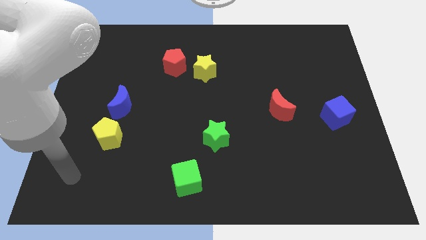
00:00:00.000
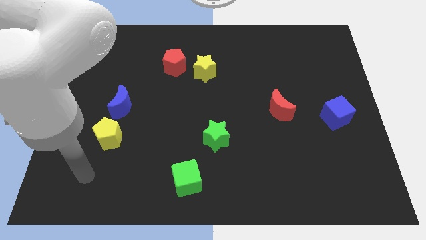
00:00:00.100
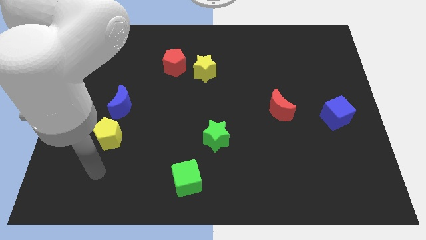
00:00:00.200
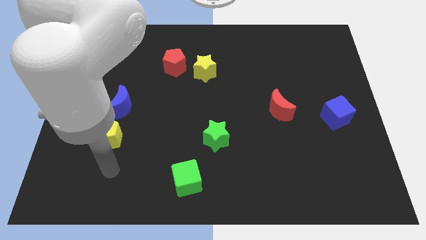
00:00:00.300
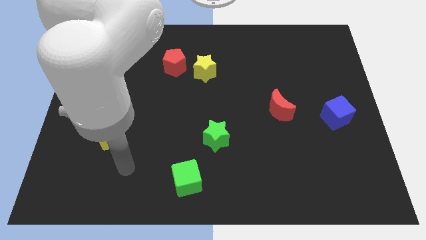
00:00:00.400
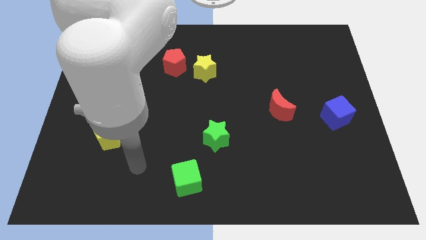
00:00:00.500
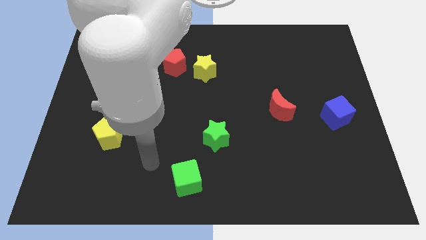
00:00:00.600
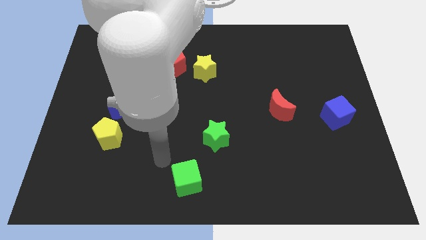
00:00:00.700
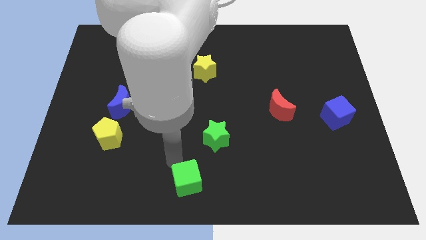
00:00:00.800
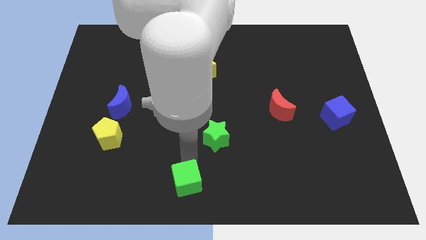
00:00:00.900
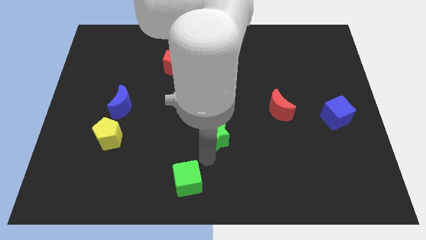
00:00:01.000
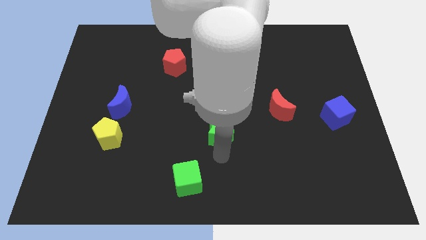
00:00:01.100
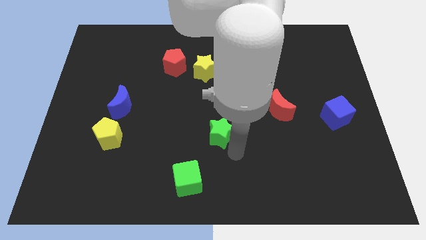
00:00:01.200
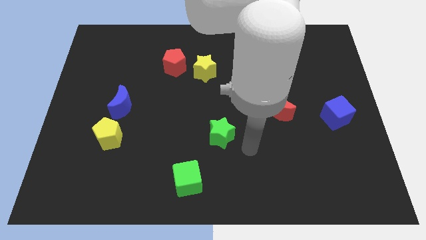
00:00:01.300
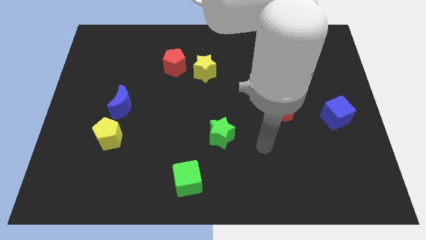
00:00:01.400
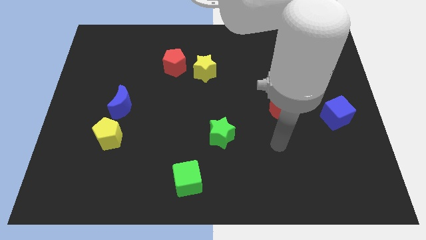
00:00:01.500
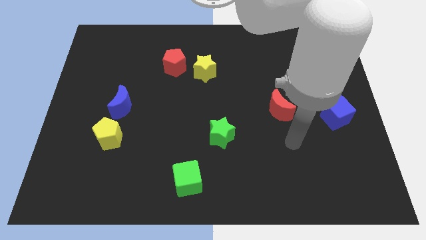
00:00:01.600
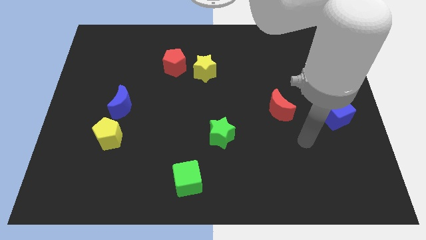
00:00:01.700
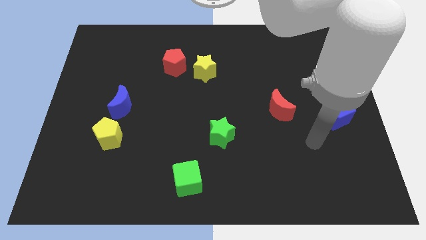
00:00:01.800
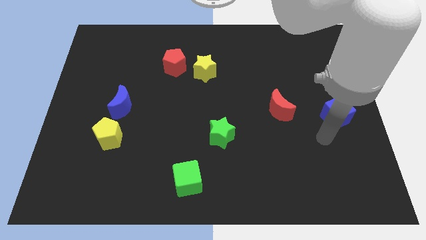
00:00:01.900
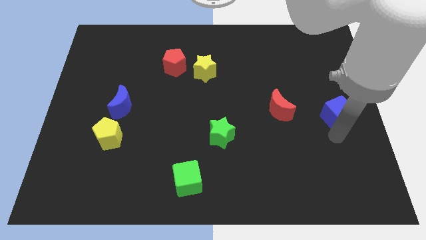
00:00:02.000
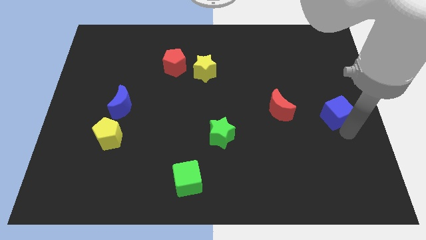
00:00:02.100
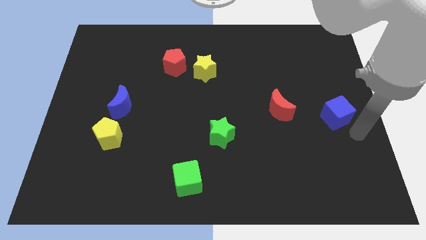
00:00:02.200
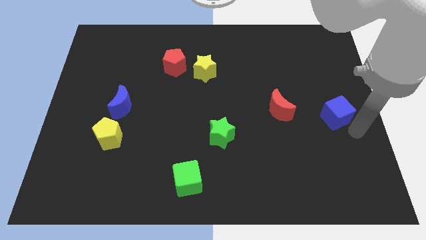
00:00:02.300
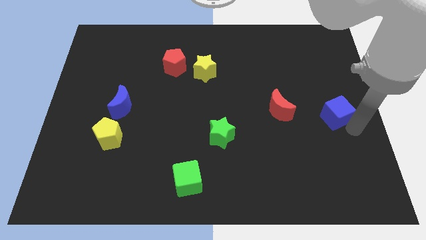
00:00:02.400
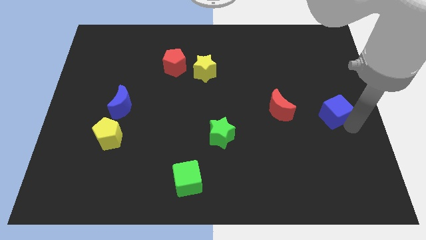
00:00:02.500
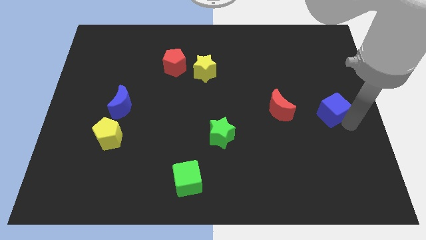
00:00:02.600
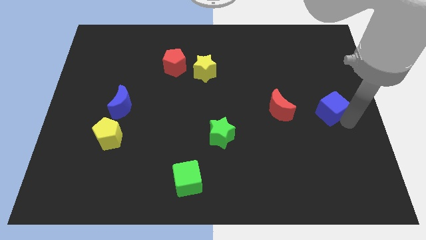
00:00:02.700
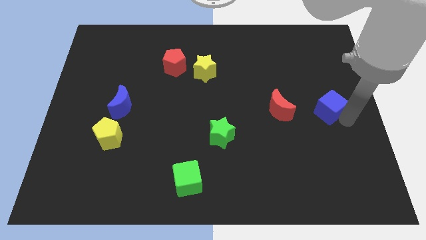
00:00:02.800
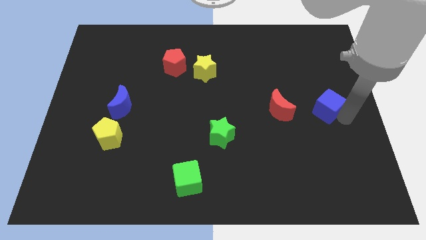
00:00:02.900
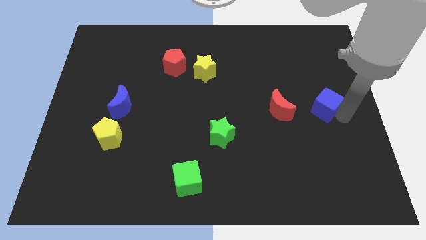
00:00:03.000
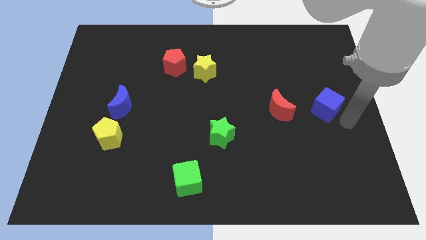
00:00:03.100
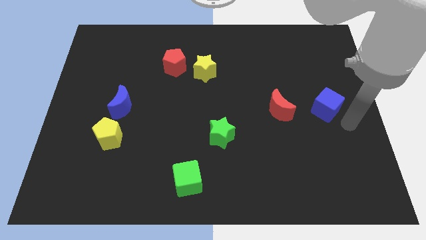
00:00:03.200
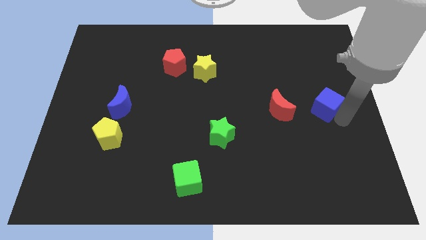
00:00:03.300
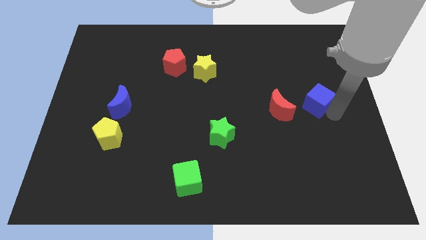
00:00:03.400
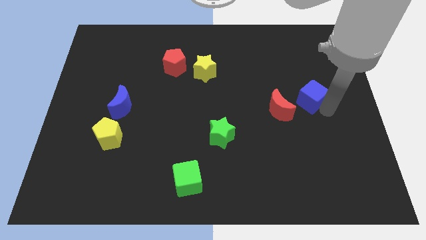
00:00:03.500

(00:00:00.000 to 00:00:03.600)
slightly move the blue cube diagonally up and to the left

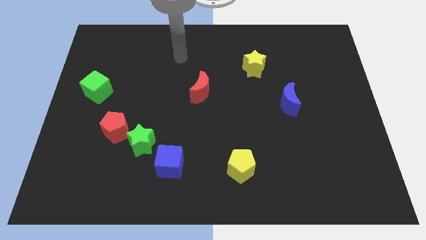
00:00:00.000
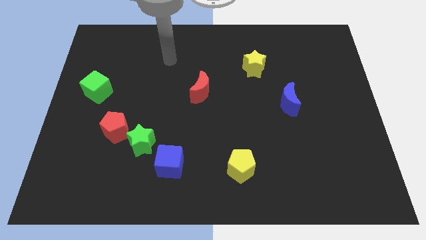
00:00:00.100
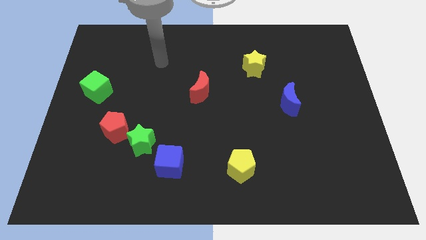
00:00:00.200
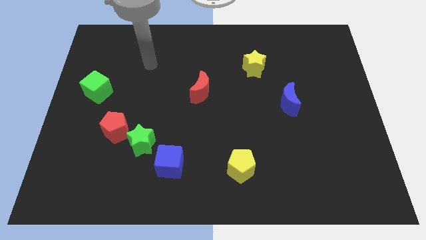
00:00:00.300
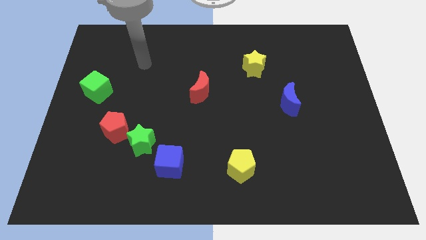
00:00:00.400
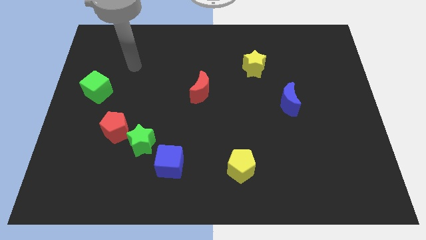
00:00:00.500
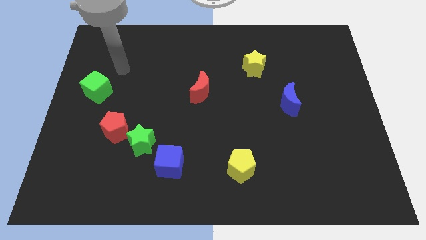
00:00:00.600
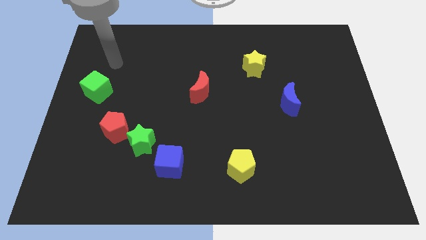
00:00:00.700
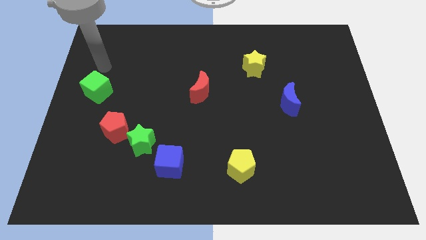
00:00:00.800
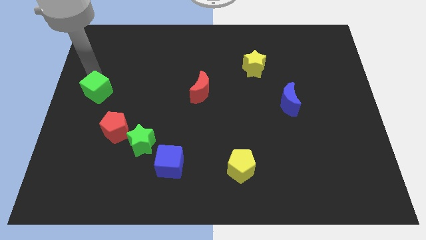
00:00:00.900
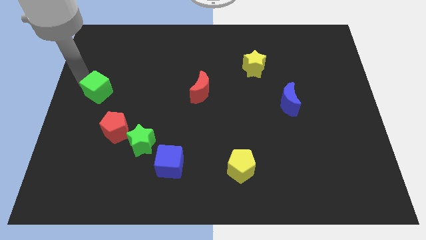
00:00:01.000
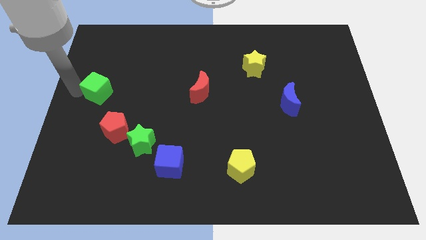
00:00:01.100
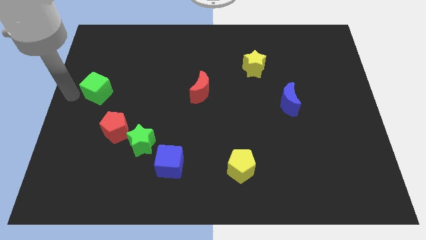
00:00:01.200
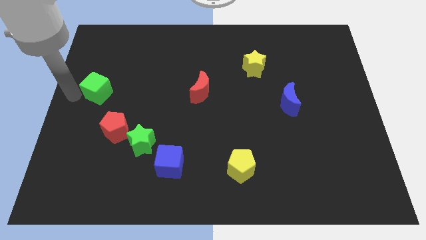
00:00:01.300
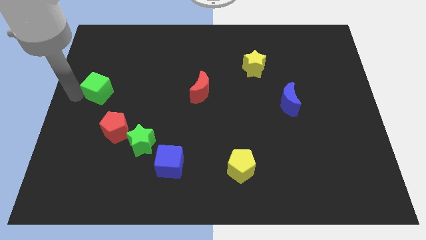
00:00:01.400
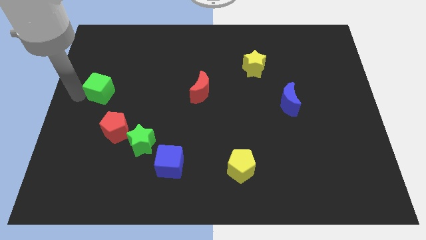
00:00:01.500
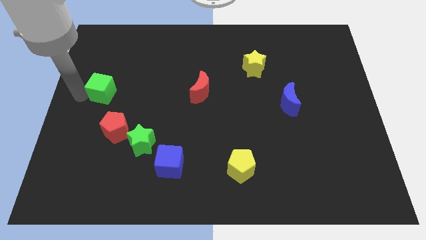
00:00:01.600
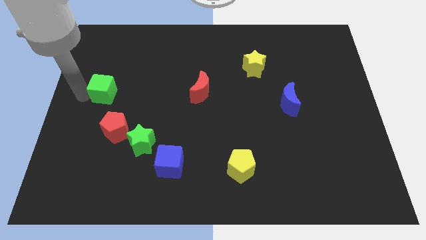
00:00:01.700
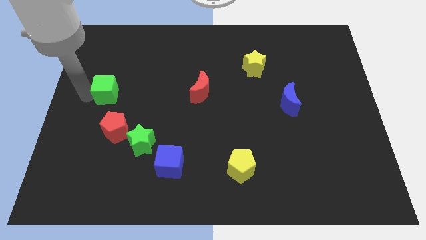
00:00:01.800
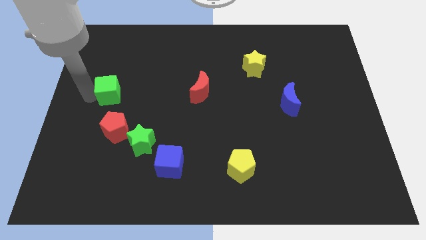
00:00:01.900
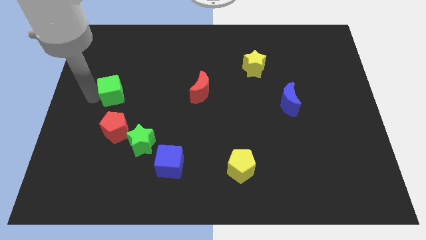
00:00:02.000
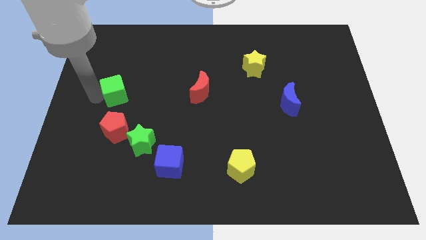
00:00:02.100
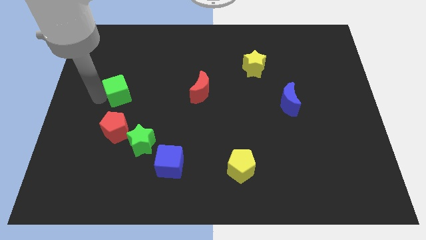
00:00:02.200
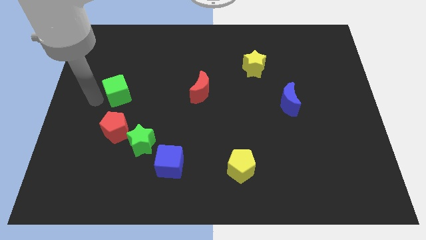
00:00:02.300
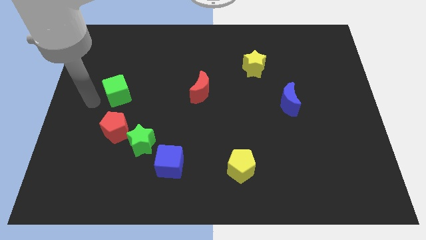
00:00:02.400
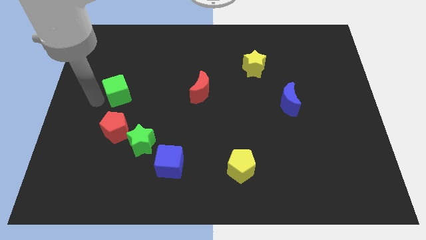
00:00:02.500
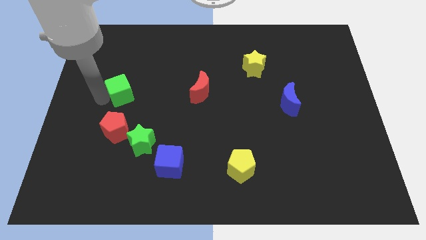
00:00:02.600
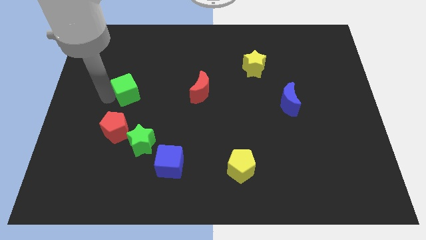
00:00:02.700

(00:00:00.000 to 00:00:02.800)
push the green cube somewhat to the right

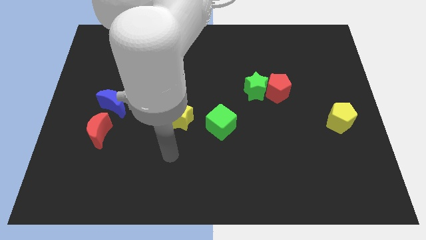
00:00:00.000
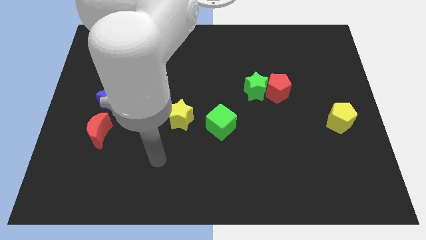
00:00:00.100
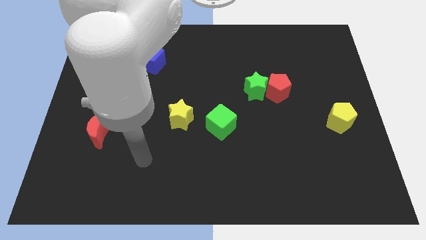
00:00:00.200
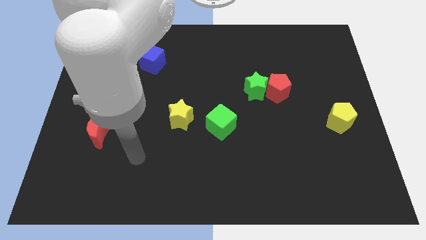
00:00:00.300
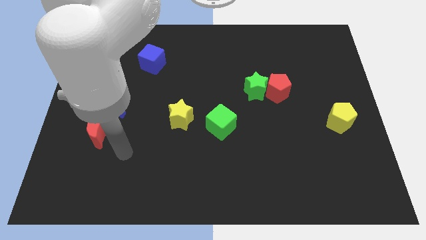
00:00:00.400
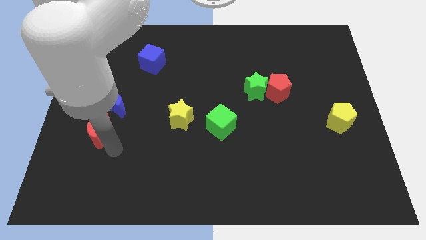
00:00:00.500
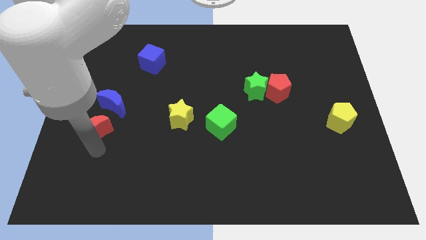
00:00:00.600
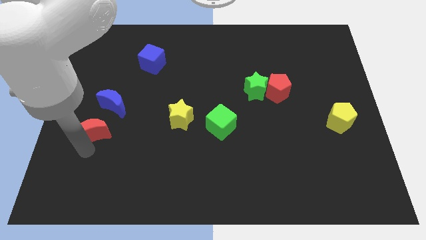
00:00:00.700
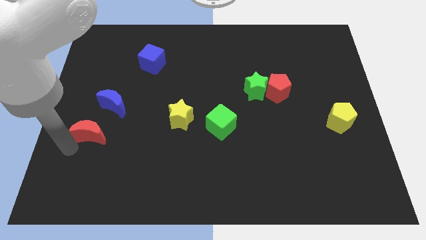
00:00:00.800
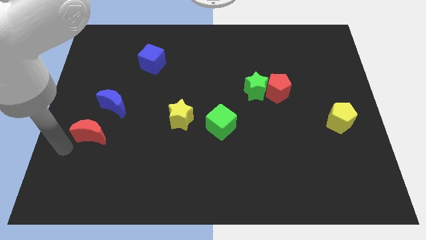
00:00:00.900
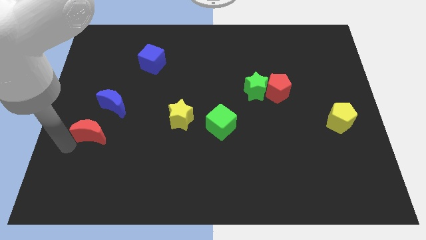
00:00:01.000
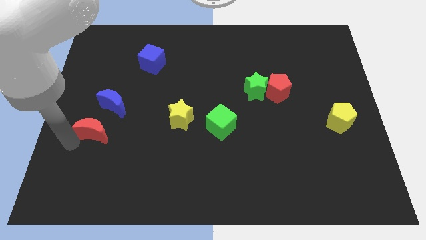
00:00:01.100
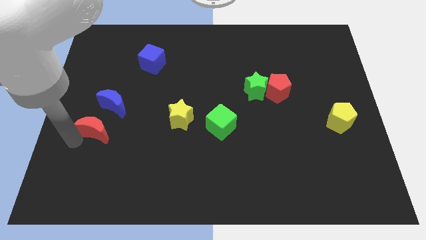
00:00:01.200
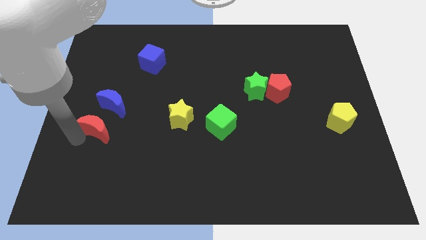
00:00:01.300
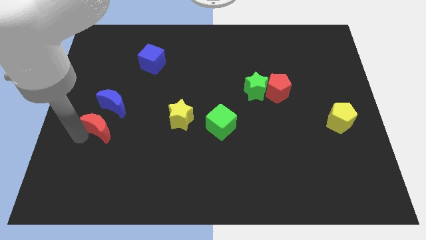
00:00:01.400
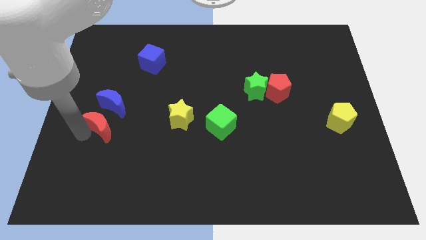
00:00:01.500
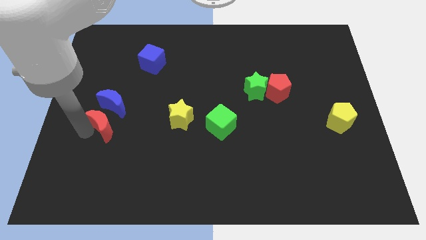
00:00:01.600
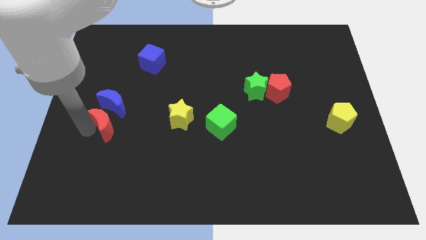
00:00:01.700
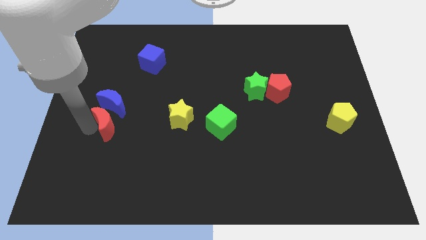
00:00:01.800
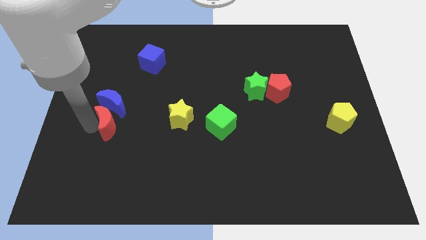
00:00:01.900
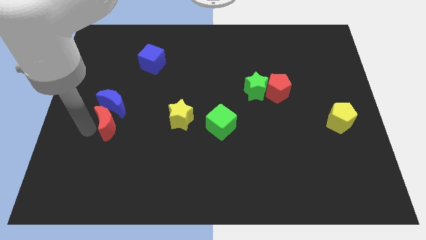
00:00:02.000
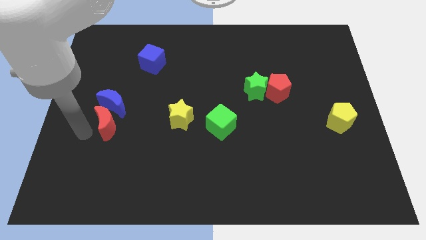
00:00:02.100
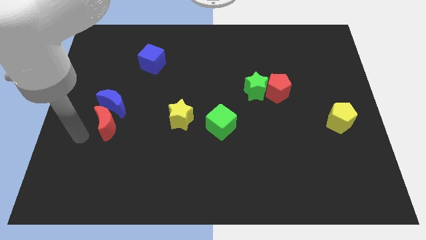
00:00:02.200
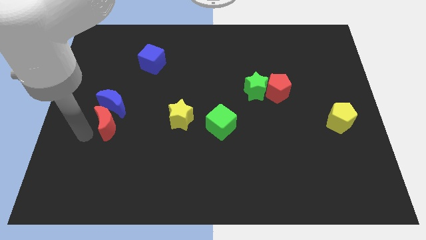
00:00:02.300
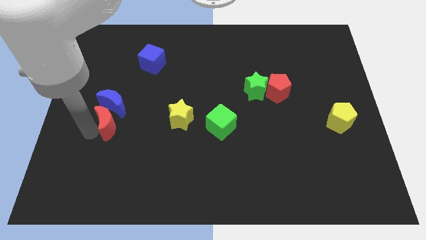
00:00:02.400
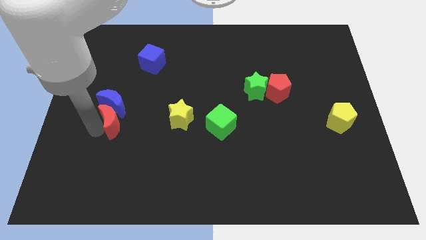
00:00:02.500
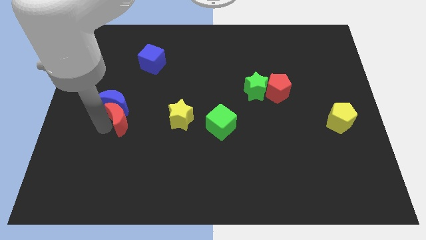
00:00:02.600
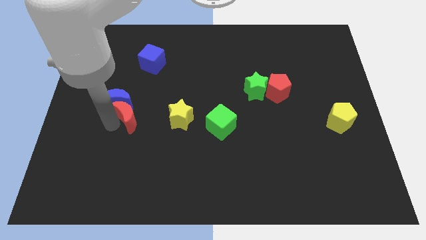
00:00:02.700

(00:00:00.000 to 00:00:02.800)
slightly move the red moon up and then right
